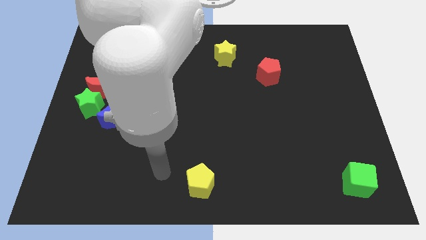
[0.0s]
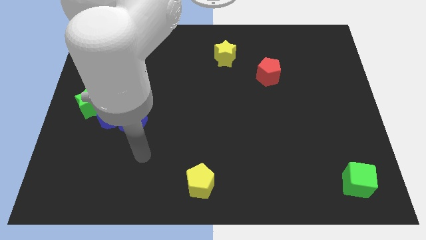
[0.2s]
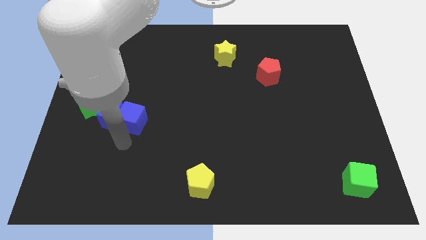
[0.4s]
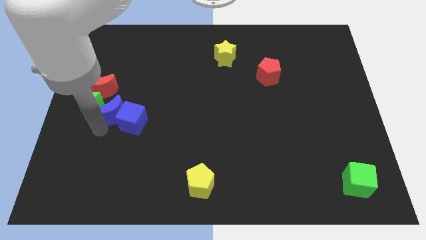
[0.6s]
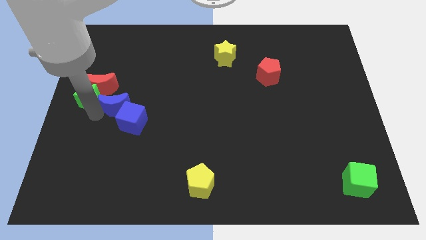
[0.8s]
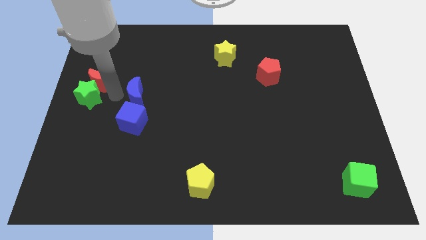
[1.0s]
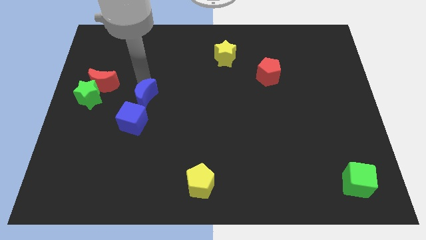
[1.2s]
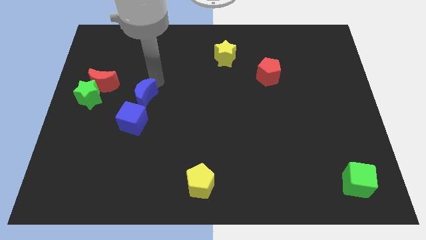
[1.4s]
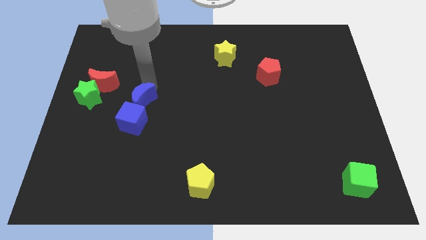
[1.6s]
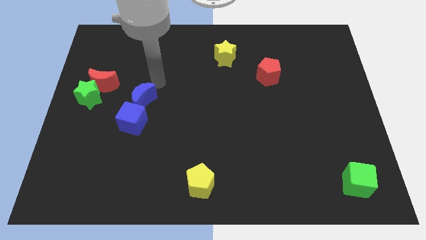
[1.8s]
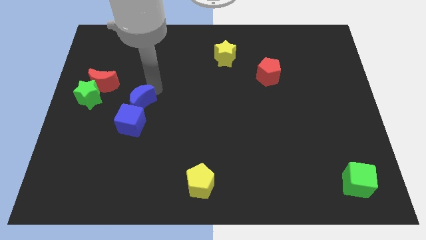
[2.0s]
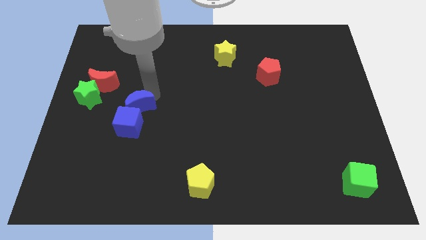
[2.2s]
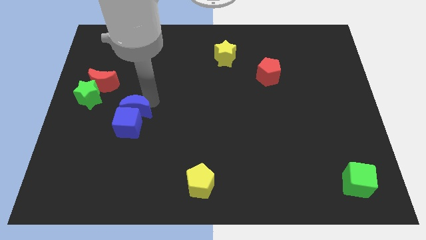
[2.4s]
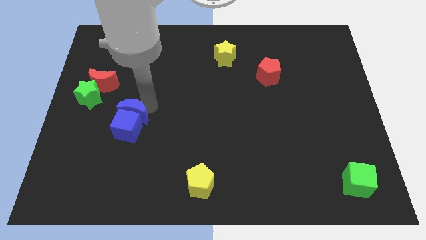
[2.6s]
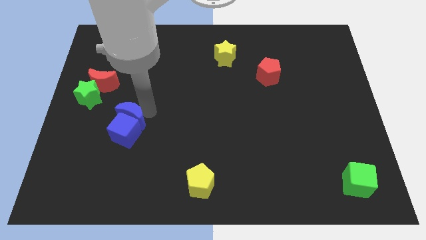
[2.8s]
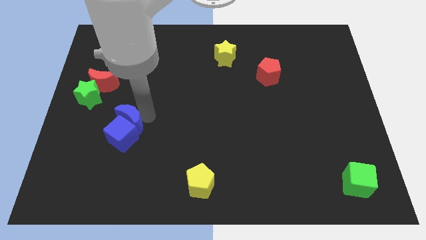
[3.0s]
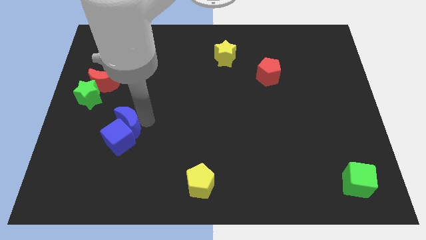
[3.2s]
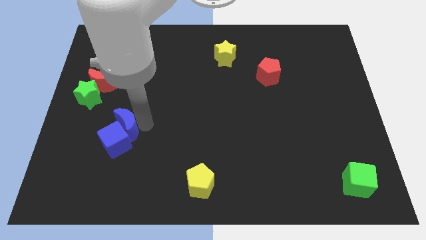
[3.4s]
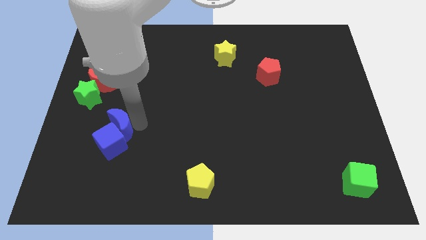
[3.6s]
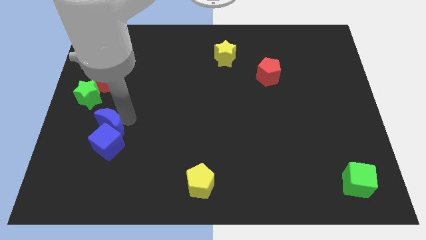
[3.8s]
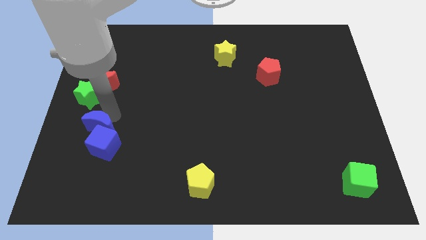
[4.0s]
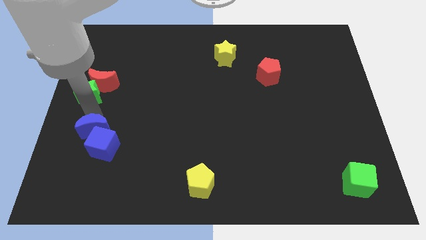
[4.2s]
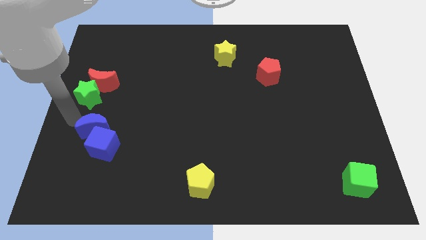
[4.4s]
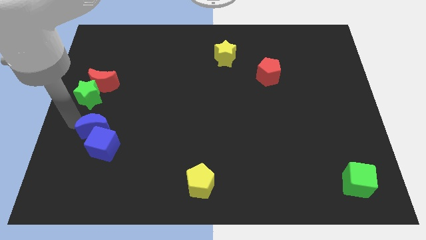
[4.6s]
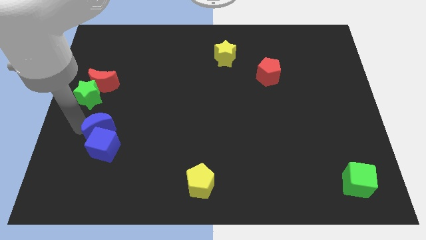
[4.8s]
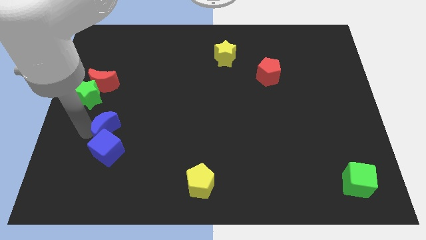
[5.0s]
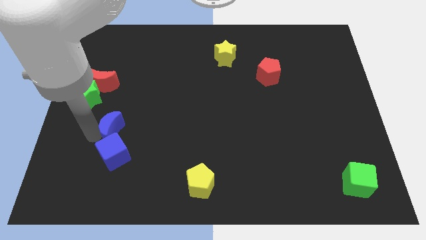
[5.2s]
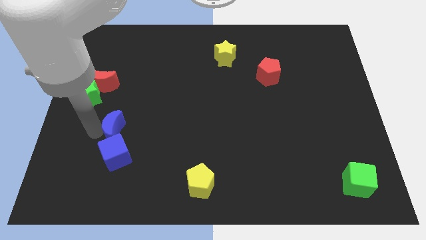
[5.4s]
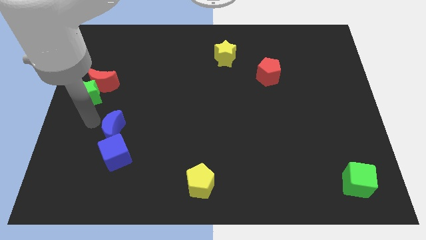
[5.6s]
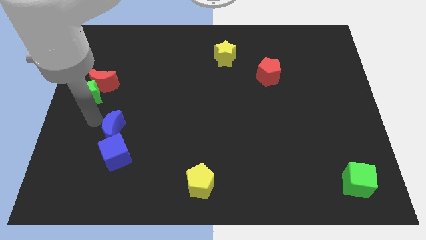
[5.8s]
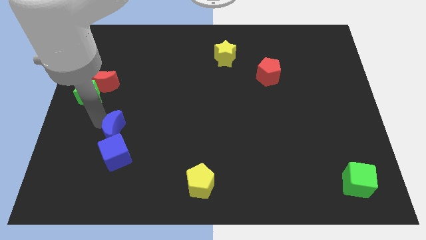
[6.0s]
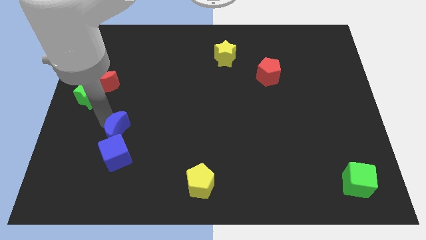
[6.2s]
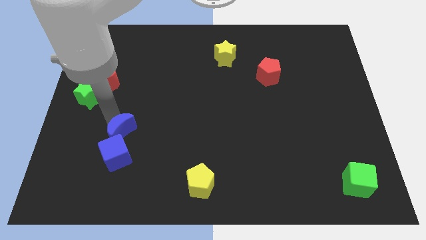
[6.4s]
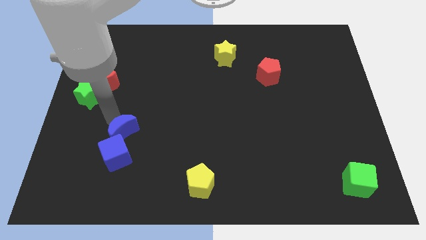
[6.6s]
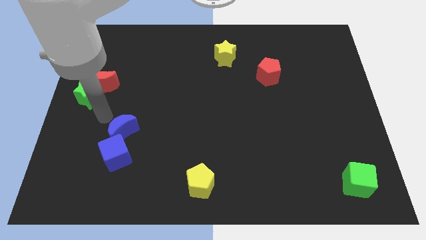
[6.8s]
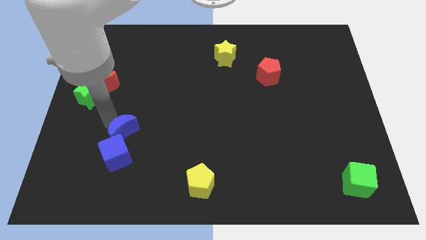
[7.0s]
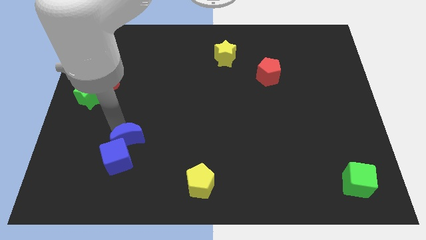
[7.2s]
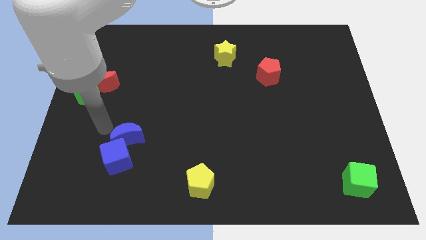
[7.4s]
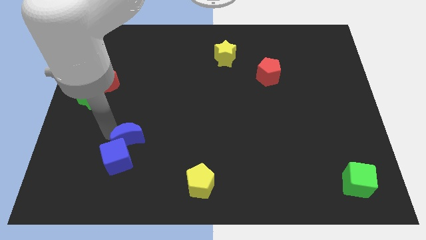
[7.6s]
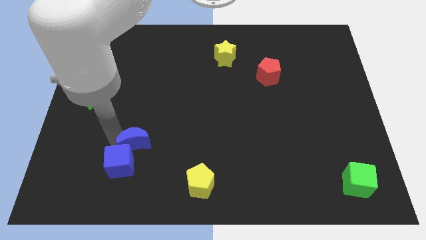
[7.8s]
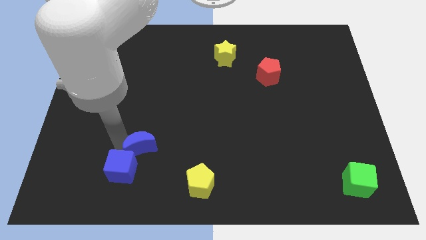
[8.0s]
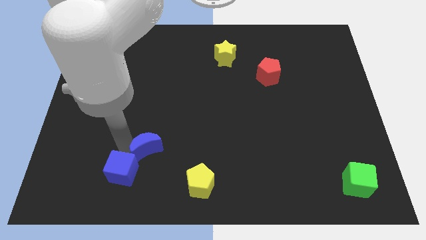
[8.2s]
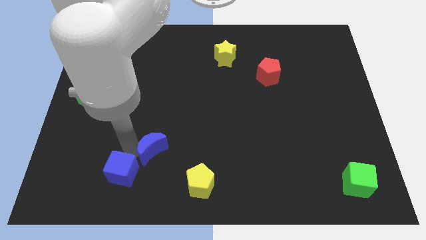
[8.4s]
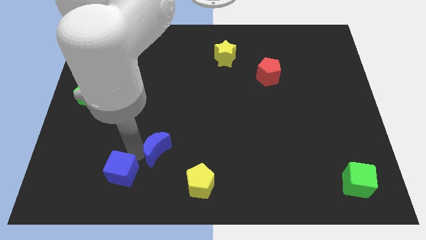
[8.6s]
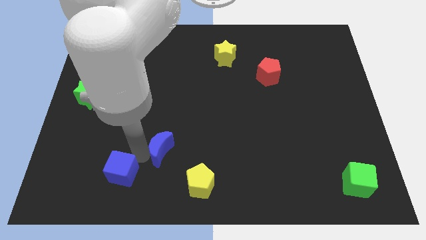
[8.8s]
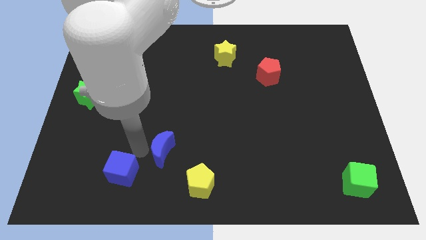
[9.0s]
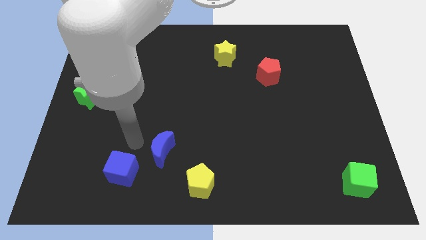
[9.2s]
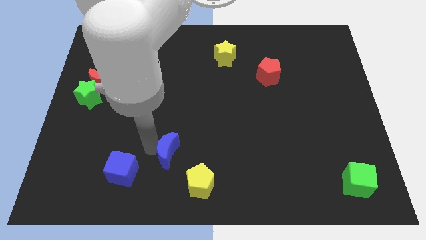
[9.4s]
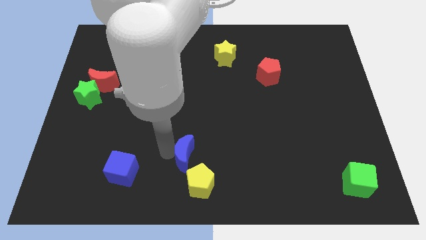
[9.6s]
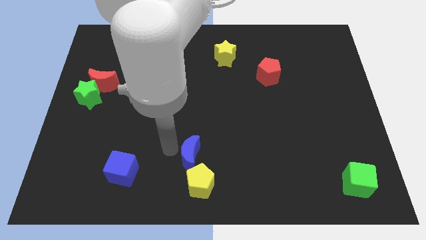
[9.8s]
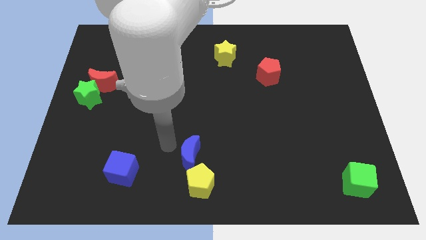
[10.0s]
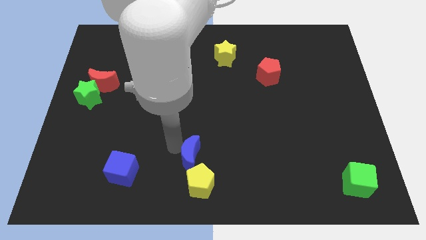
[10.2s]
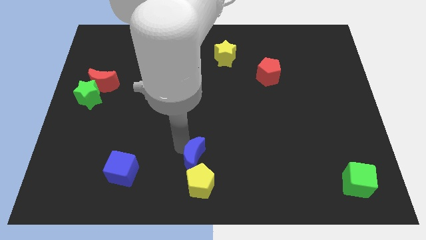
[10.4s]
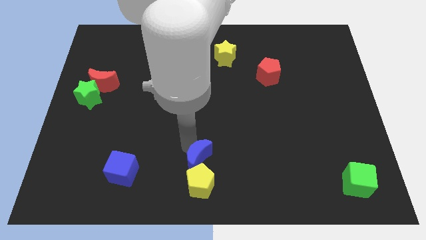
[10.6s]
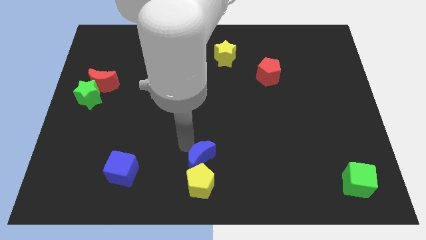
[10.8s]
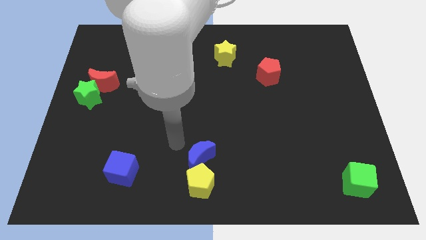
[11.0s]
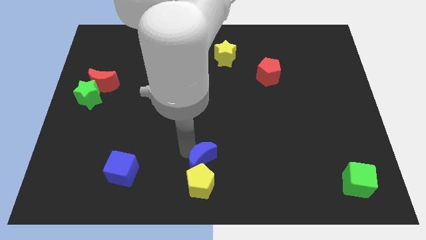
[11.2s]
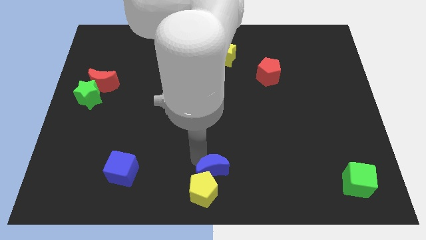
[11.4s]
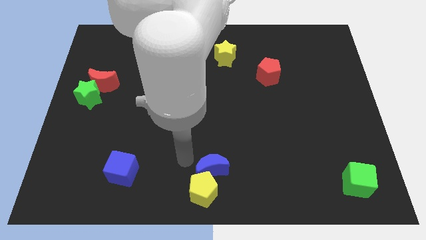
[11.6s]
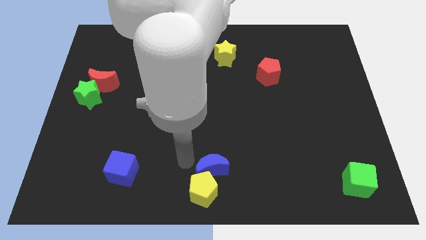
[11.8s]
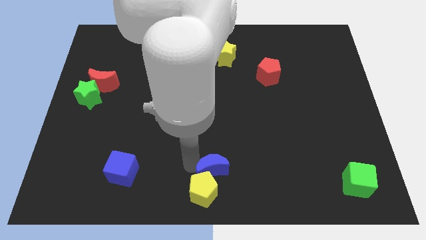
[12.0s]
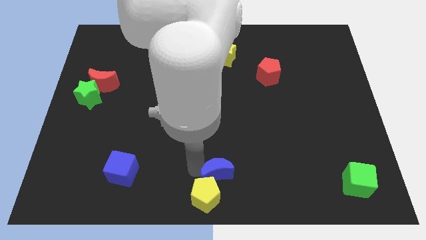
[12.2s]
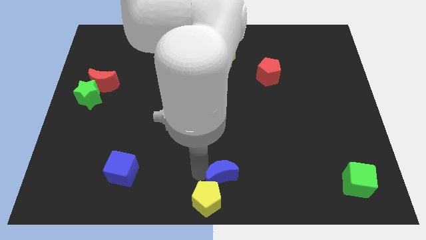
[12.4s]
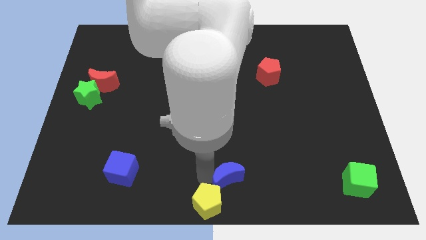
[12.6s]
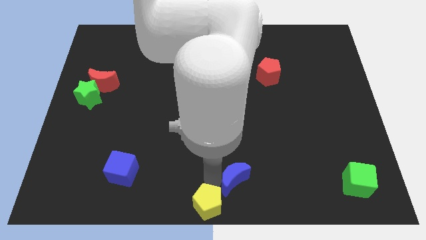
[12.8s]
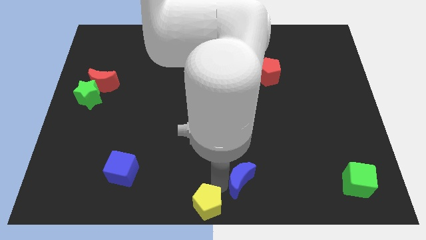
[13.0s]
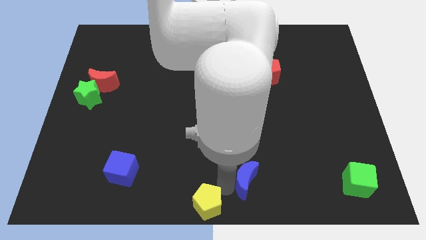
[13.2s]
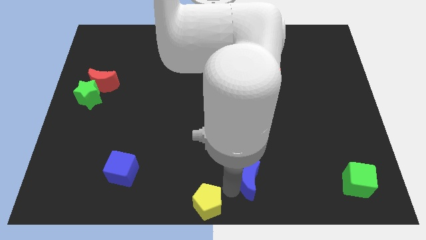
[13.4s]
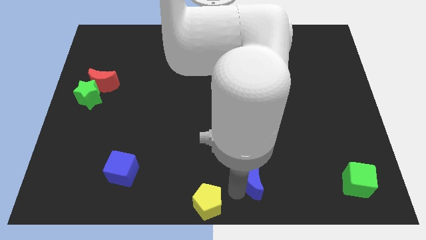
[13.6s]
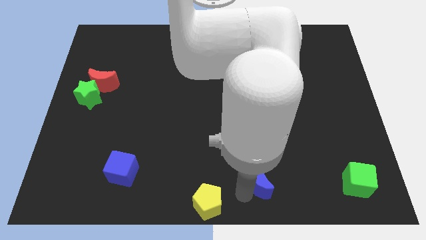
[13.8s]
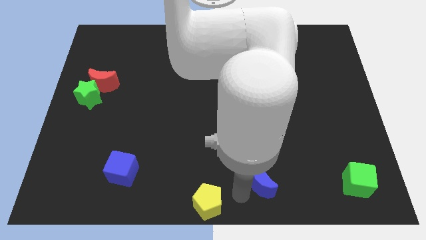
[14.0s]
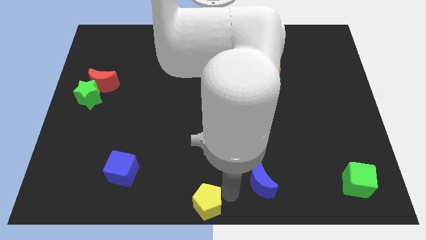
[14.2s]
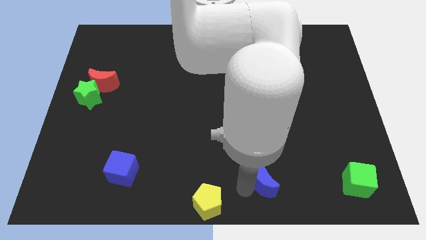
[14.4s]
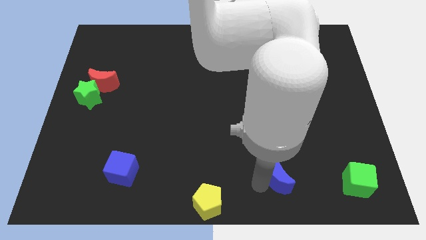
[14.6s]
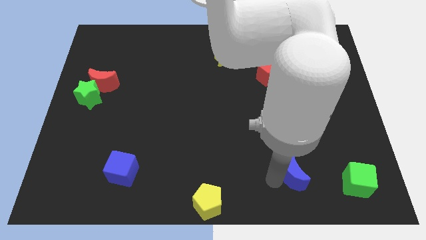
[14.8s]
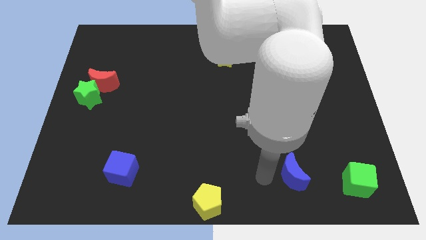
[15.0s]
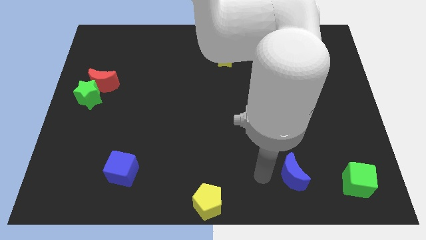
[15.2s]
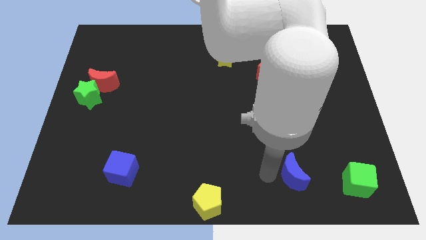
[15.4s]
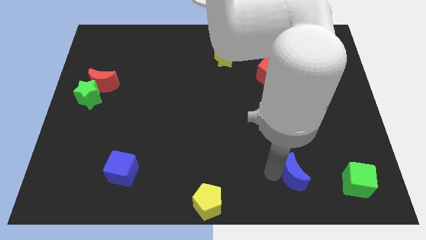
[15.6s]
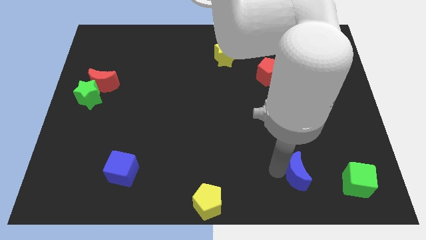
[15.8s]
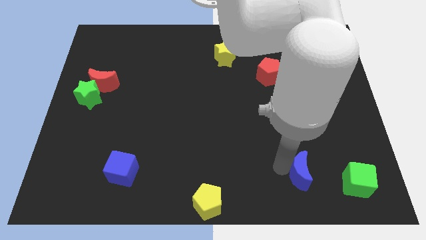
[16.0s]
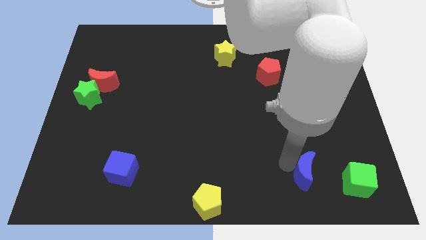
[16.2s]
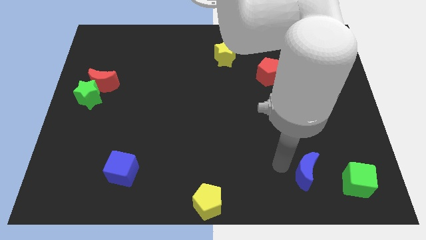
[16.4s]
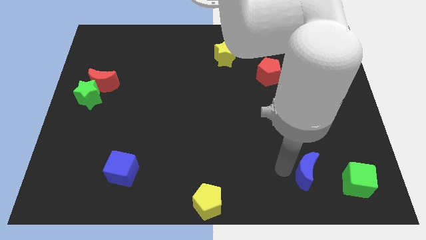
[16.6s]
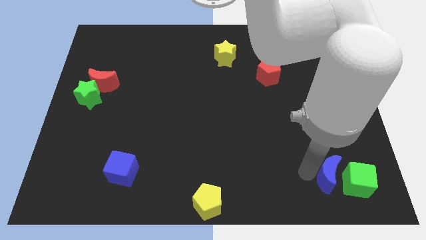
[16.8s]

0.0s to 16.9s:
slide the blue moon next to the green cube
